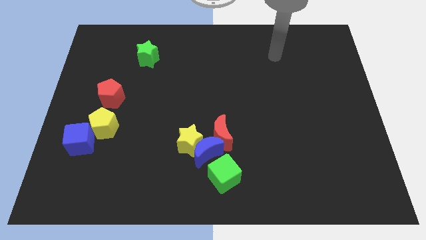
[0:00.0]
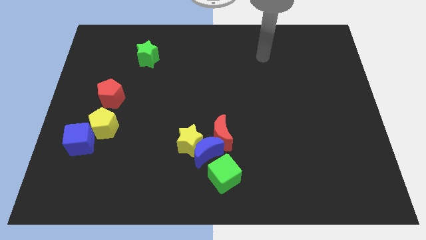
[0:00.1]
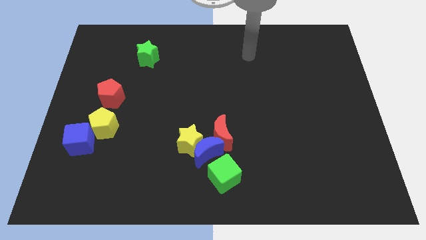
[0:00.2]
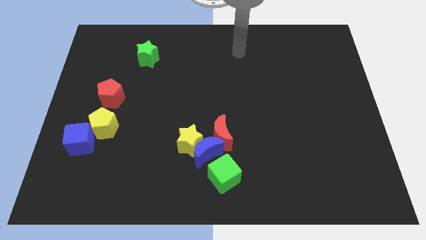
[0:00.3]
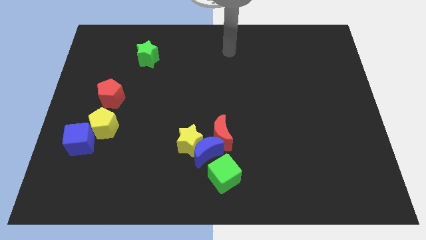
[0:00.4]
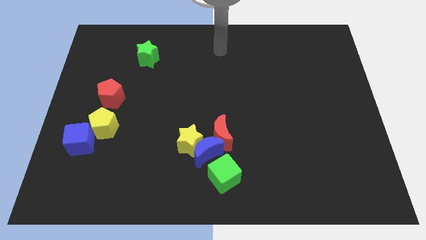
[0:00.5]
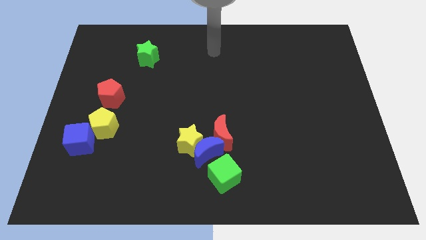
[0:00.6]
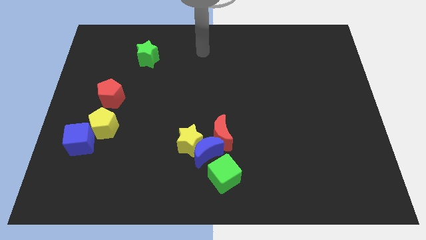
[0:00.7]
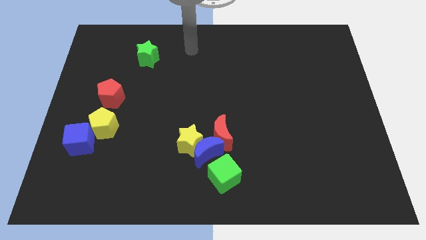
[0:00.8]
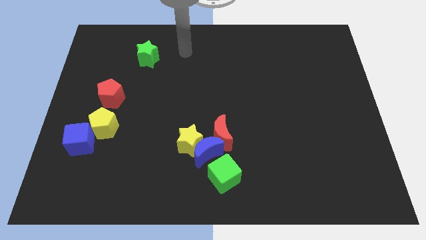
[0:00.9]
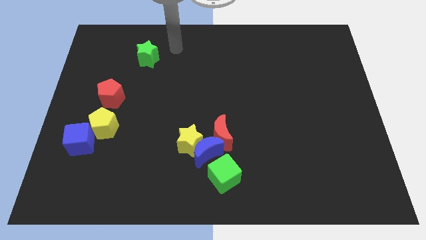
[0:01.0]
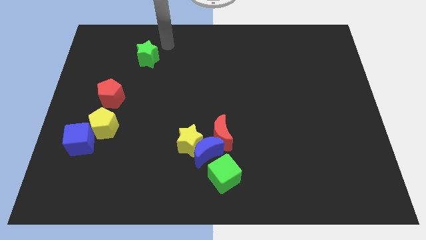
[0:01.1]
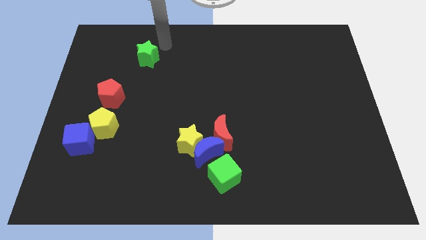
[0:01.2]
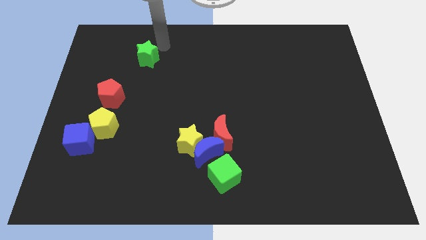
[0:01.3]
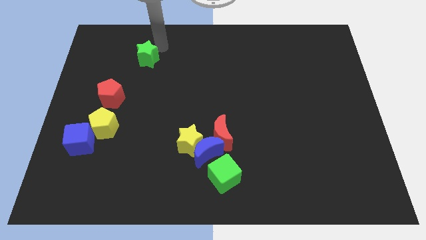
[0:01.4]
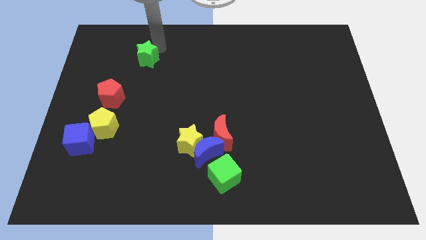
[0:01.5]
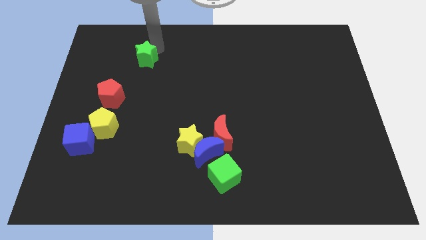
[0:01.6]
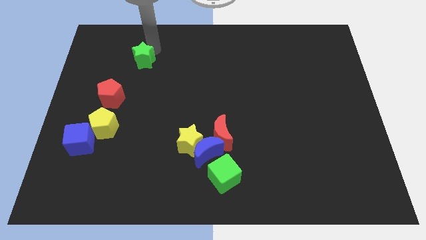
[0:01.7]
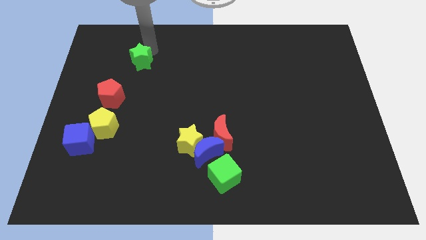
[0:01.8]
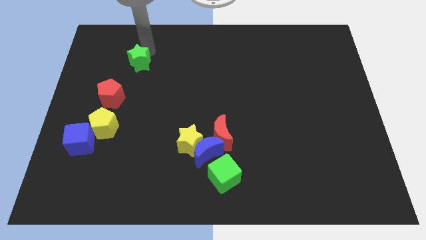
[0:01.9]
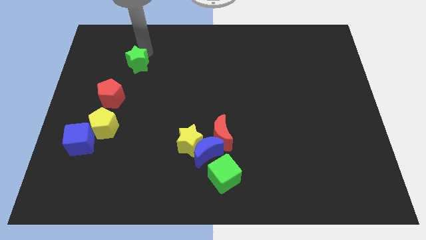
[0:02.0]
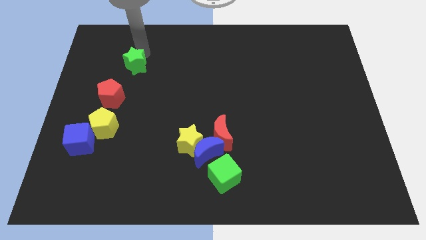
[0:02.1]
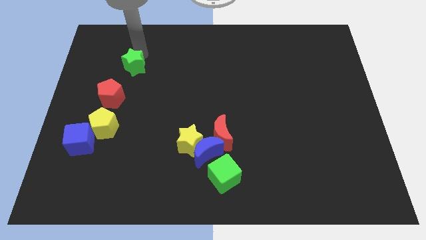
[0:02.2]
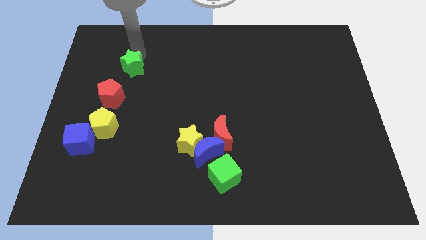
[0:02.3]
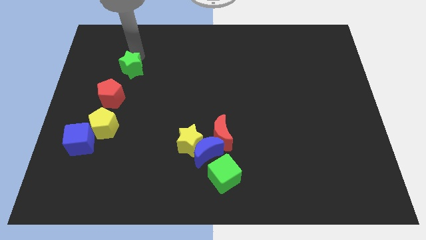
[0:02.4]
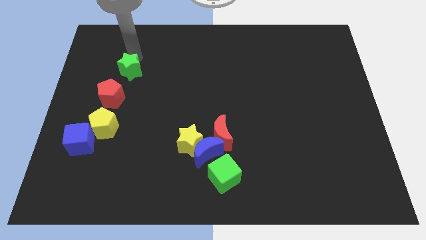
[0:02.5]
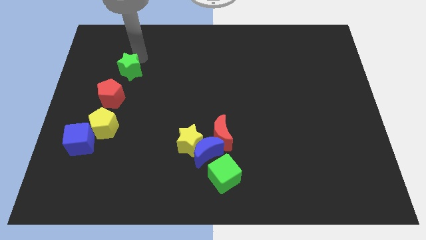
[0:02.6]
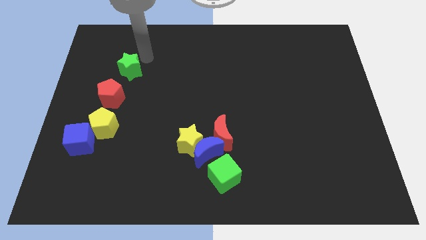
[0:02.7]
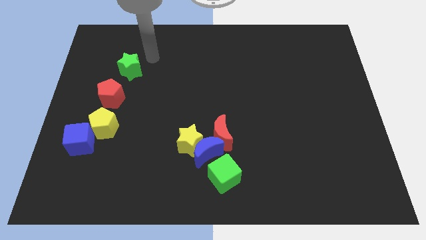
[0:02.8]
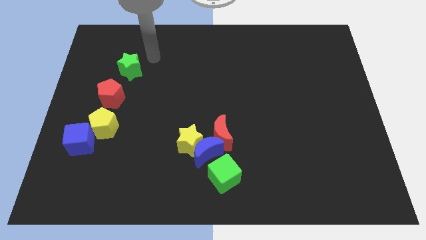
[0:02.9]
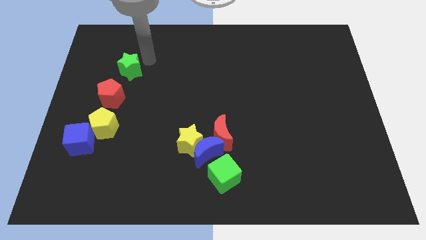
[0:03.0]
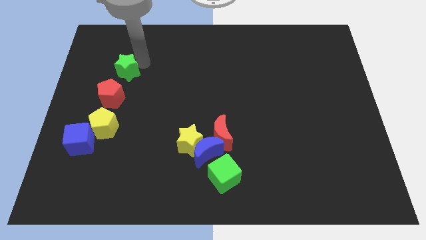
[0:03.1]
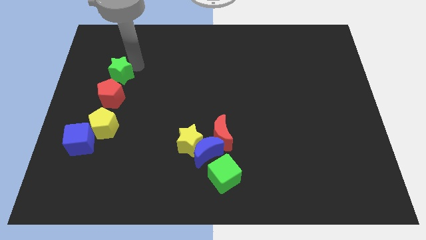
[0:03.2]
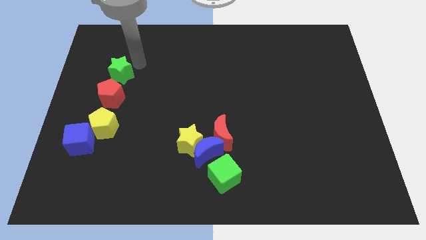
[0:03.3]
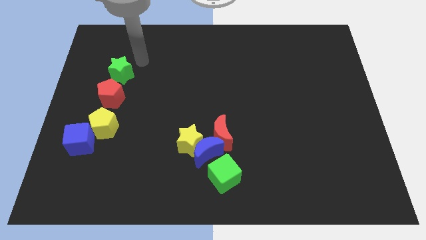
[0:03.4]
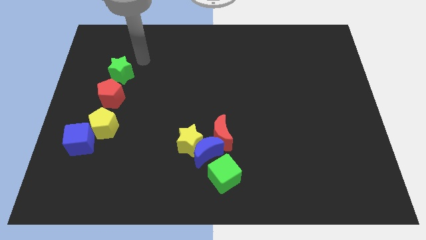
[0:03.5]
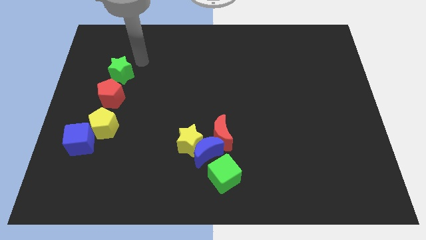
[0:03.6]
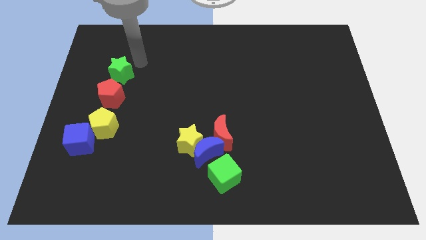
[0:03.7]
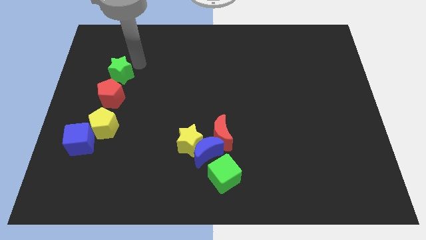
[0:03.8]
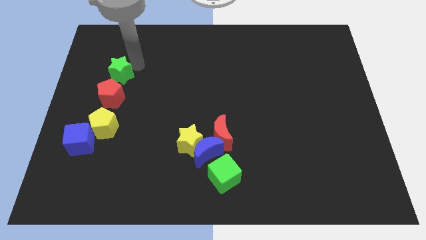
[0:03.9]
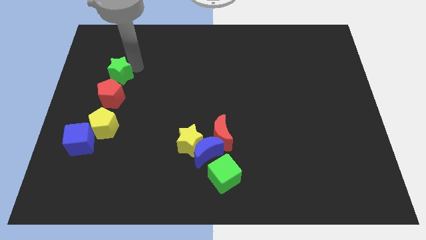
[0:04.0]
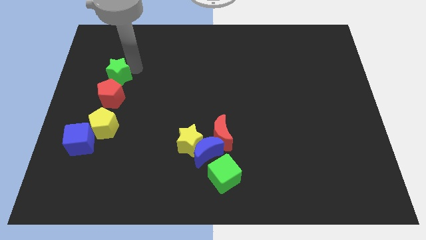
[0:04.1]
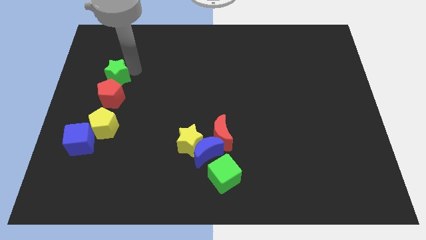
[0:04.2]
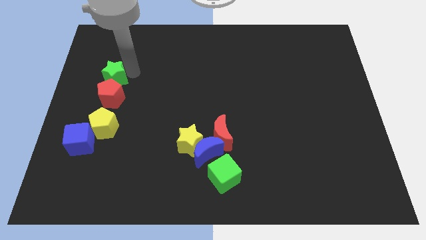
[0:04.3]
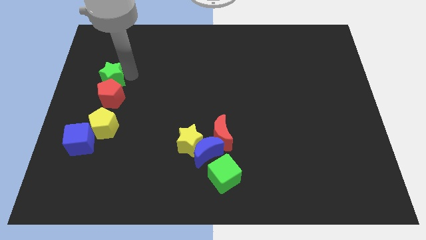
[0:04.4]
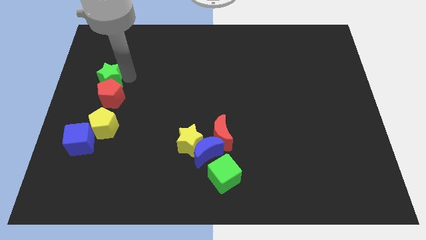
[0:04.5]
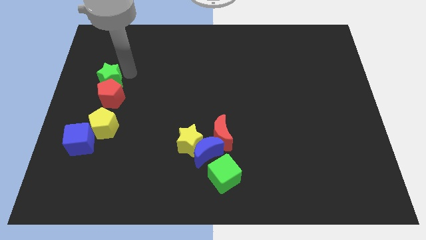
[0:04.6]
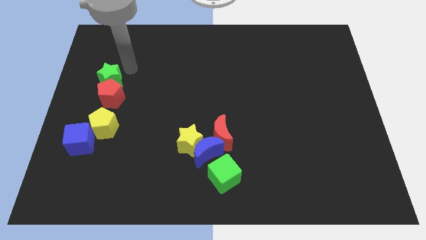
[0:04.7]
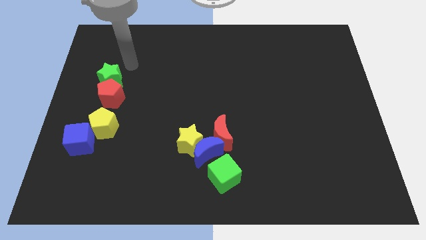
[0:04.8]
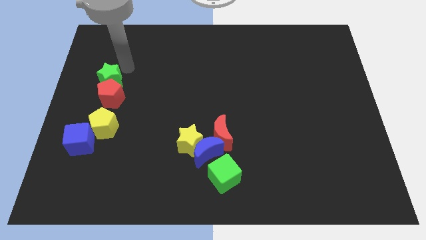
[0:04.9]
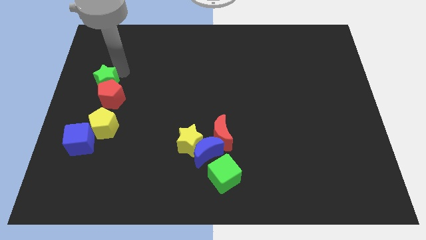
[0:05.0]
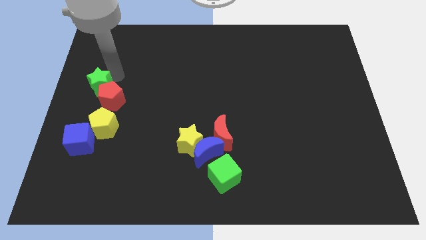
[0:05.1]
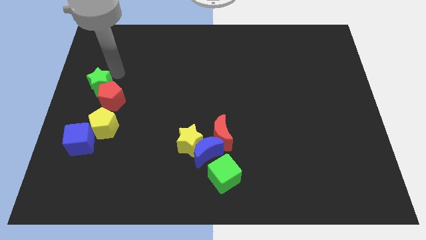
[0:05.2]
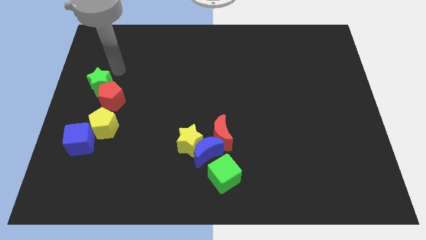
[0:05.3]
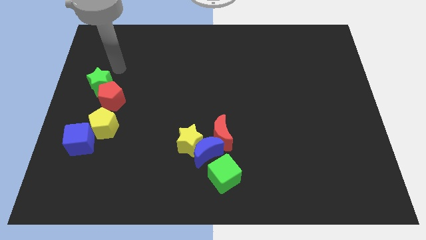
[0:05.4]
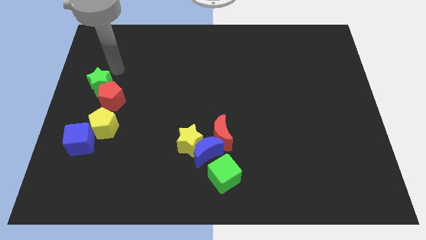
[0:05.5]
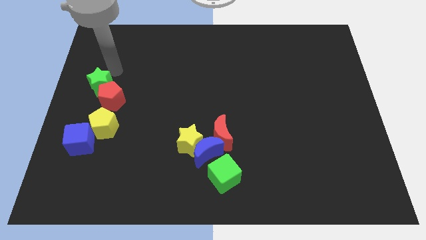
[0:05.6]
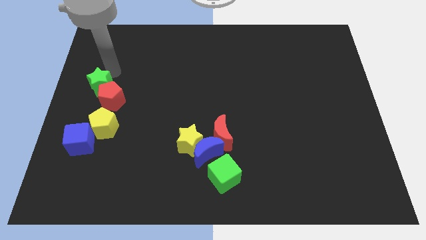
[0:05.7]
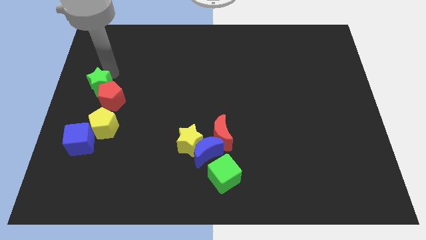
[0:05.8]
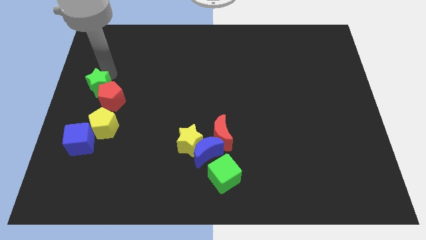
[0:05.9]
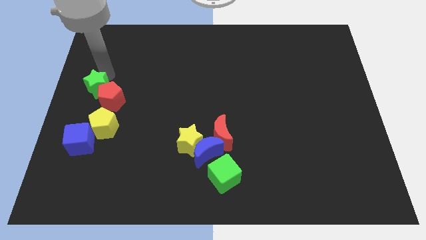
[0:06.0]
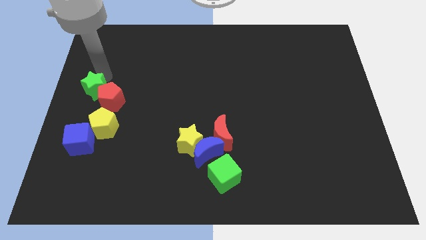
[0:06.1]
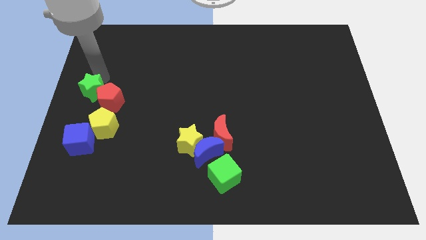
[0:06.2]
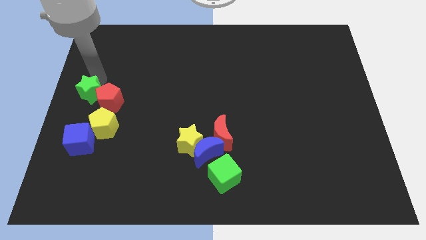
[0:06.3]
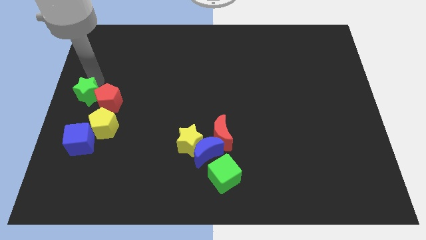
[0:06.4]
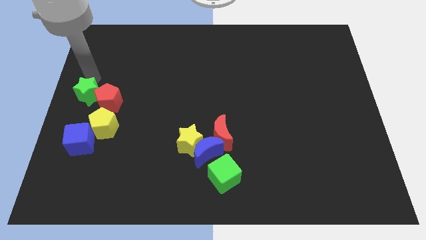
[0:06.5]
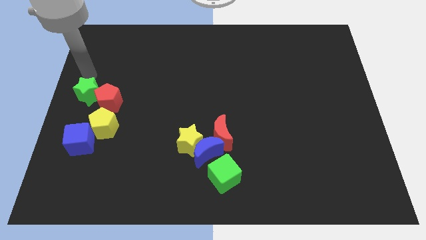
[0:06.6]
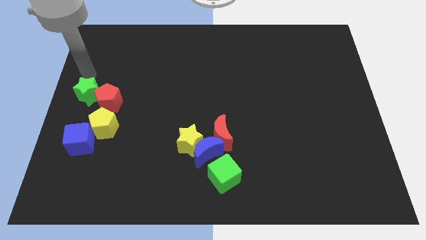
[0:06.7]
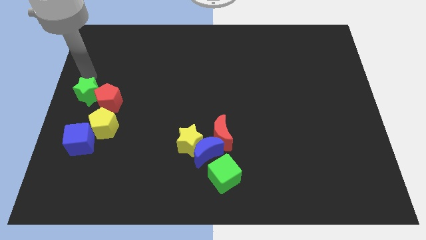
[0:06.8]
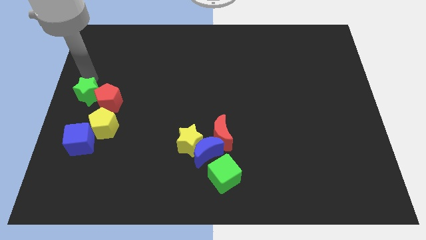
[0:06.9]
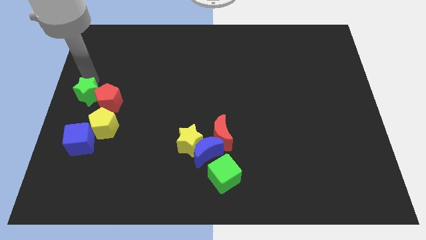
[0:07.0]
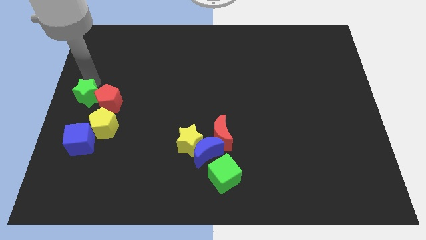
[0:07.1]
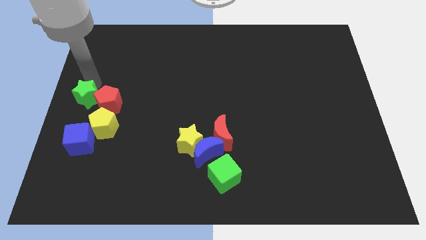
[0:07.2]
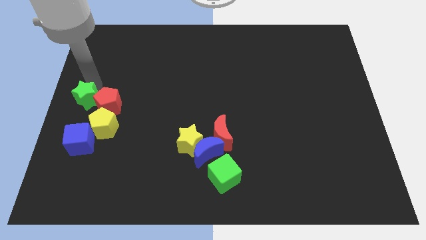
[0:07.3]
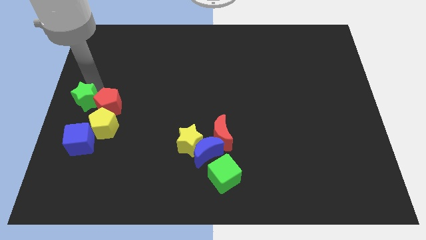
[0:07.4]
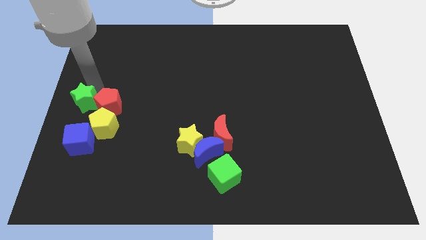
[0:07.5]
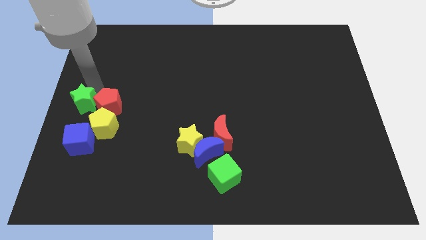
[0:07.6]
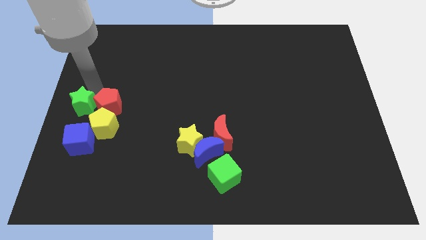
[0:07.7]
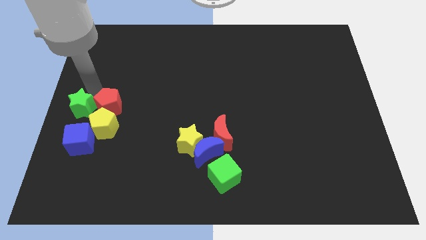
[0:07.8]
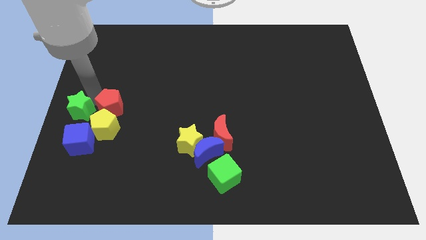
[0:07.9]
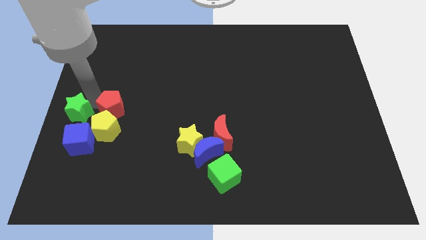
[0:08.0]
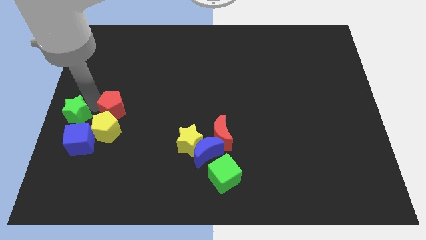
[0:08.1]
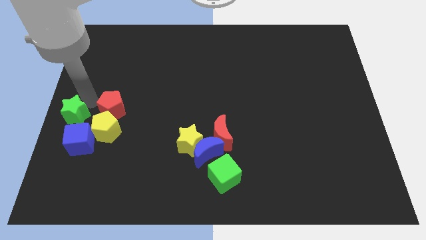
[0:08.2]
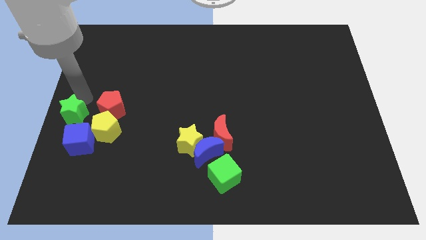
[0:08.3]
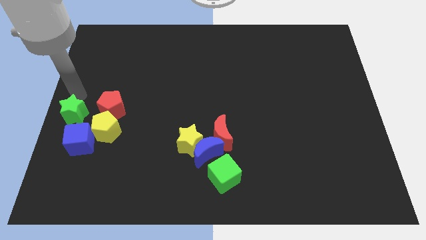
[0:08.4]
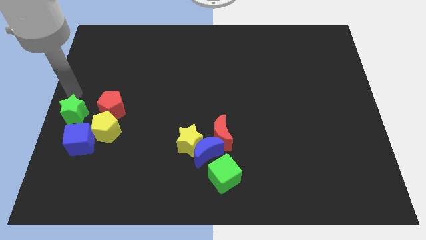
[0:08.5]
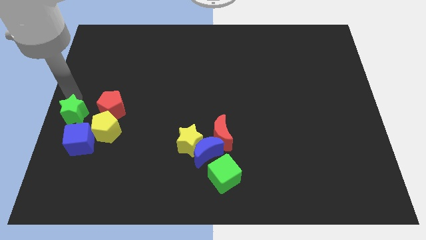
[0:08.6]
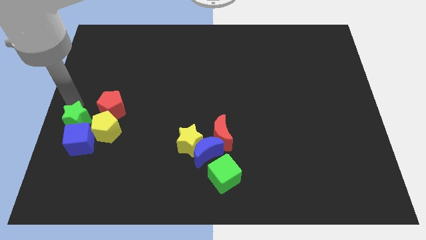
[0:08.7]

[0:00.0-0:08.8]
move the green star close to the blue cube
